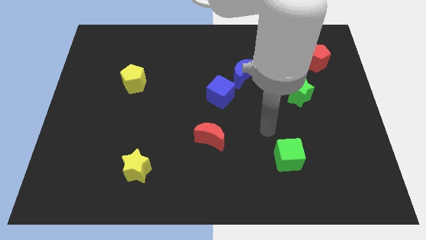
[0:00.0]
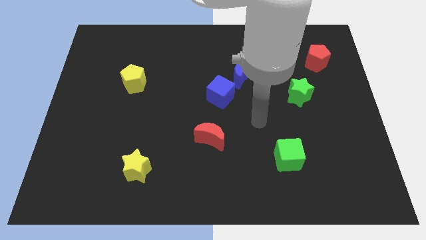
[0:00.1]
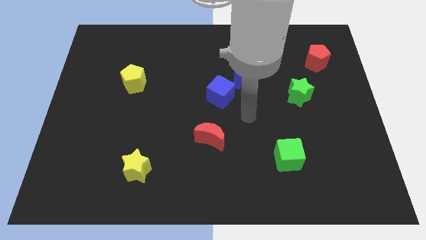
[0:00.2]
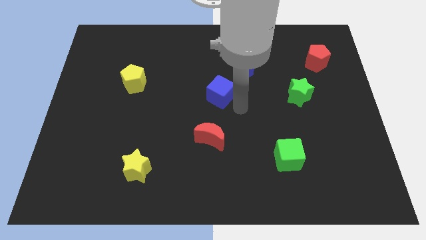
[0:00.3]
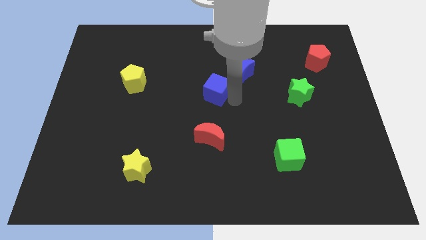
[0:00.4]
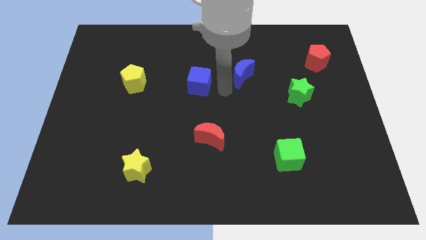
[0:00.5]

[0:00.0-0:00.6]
move the blue moon away from the blue cube

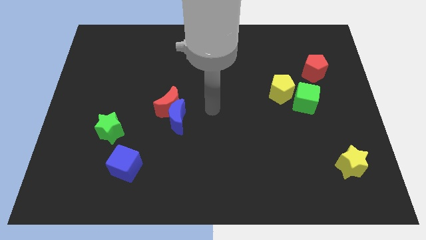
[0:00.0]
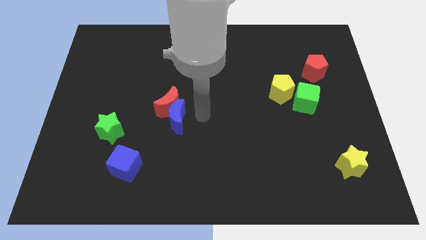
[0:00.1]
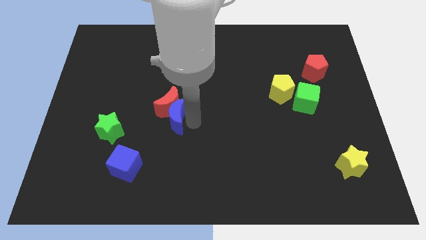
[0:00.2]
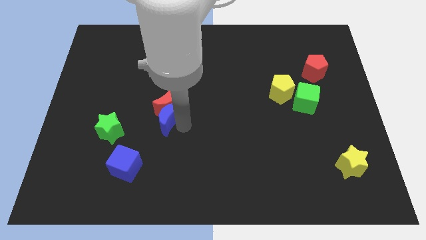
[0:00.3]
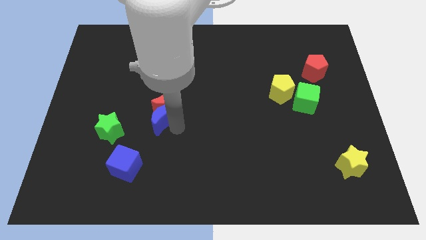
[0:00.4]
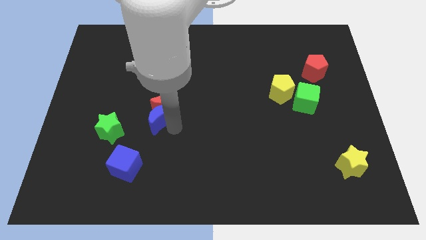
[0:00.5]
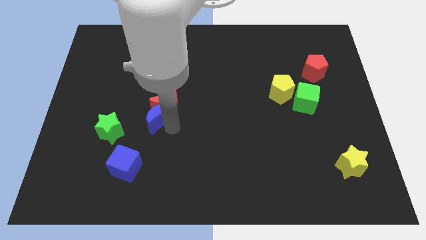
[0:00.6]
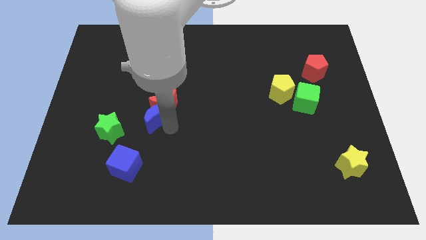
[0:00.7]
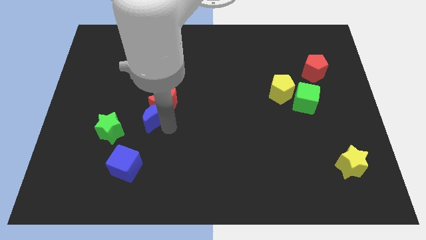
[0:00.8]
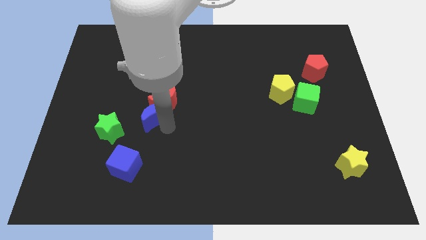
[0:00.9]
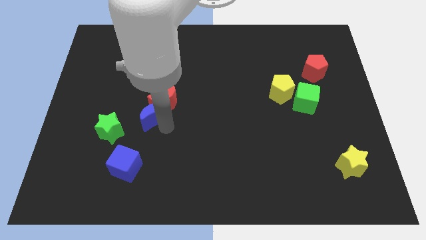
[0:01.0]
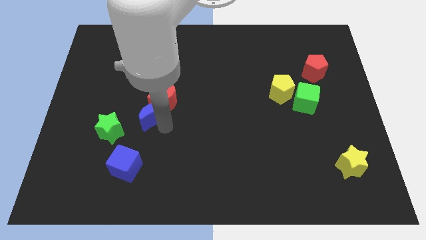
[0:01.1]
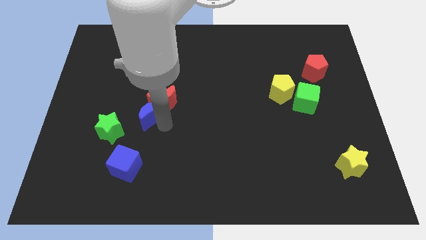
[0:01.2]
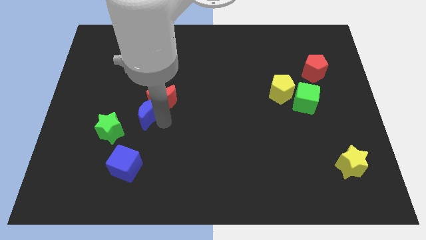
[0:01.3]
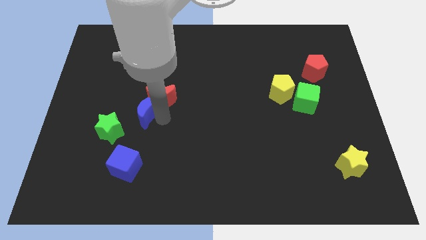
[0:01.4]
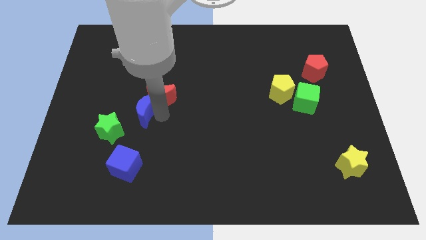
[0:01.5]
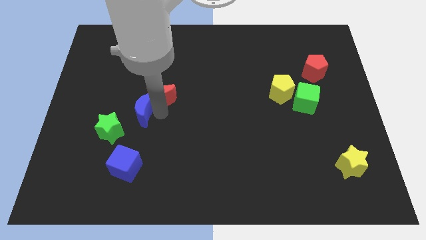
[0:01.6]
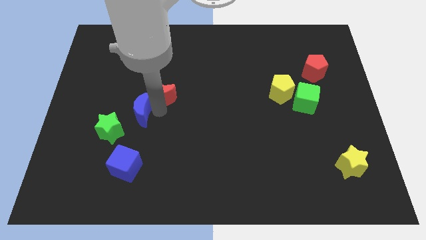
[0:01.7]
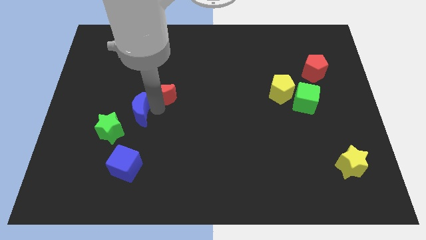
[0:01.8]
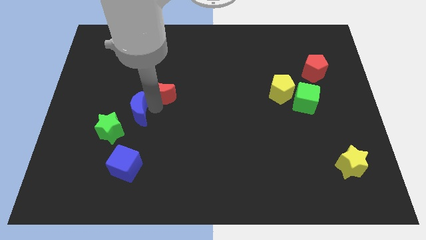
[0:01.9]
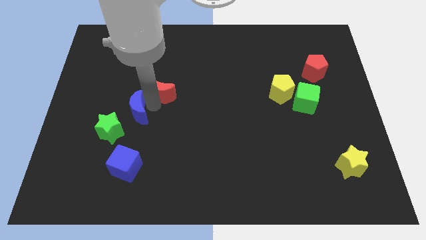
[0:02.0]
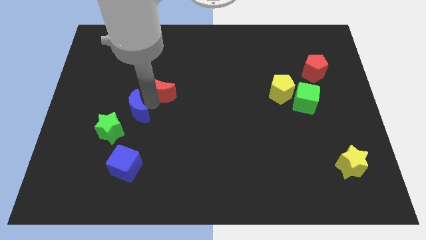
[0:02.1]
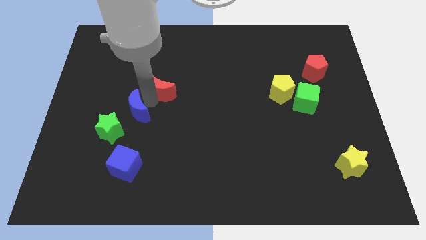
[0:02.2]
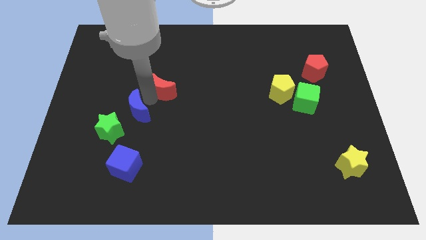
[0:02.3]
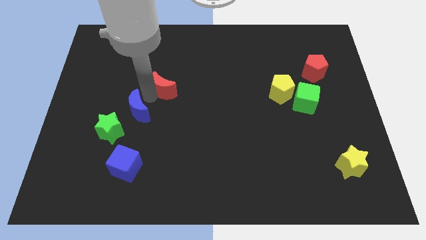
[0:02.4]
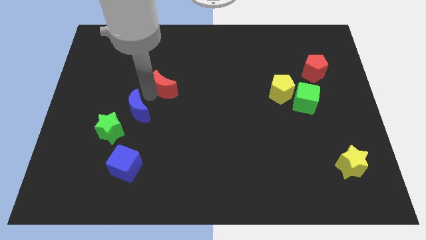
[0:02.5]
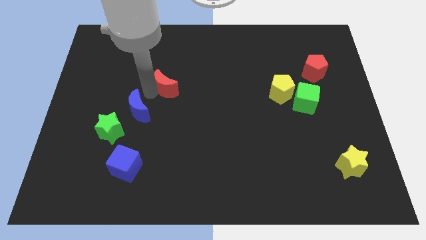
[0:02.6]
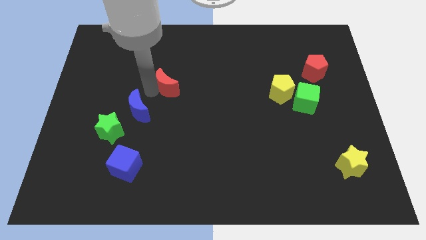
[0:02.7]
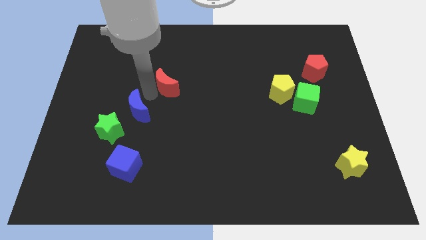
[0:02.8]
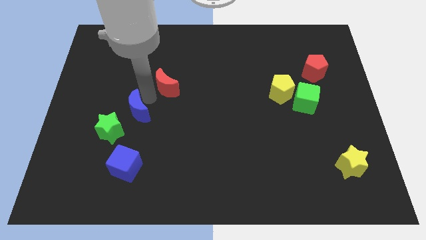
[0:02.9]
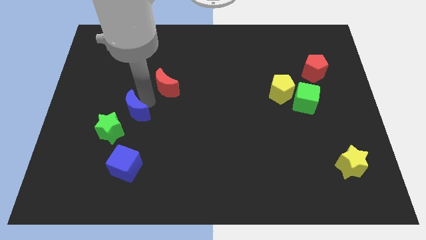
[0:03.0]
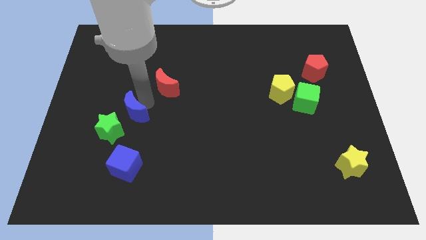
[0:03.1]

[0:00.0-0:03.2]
pull the red moon apart from the blue moon

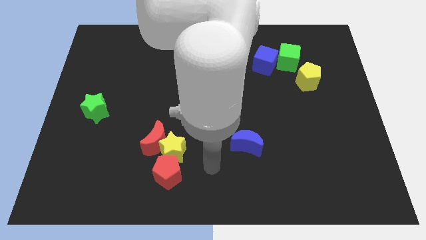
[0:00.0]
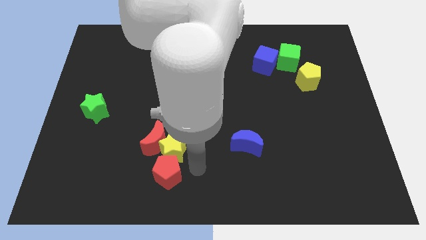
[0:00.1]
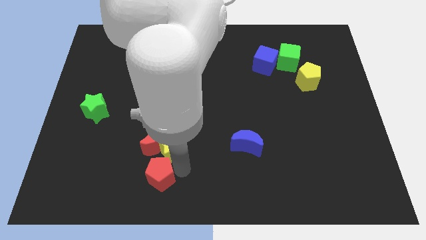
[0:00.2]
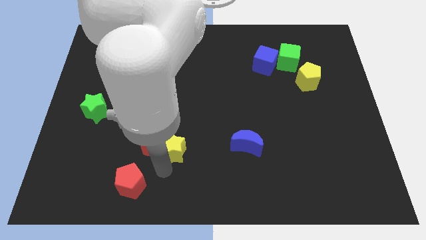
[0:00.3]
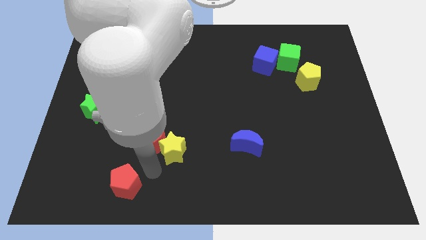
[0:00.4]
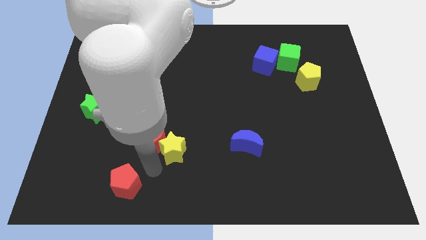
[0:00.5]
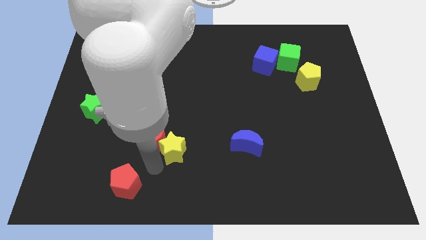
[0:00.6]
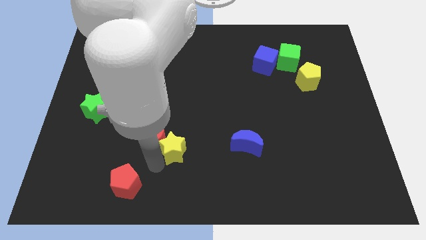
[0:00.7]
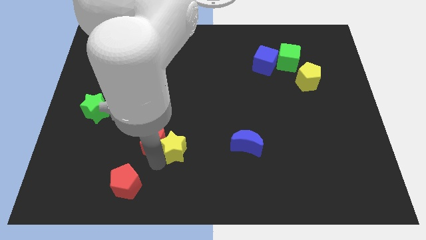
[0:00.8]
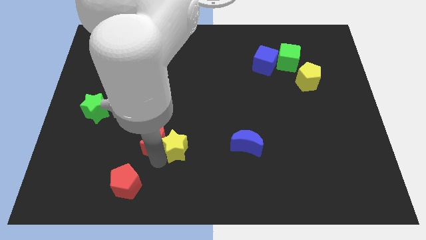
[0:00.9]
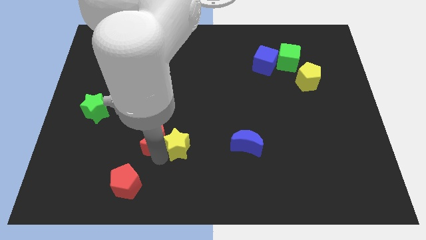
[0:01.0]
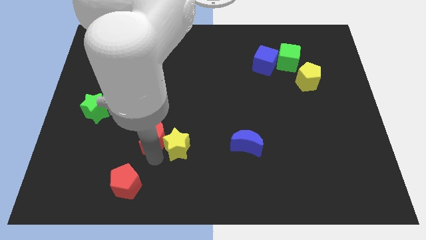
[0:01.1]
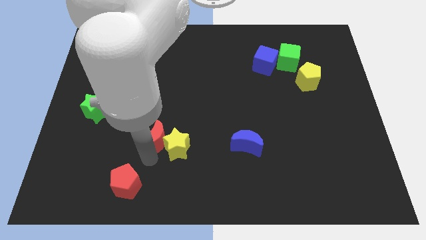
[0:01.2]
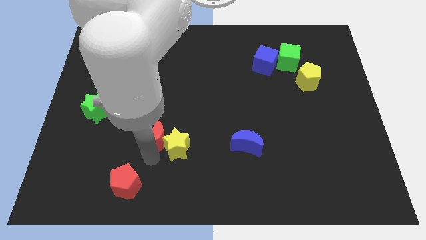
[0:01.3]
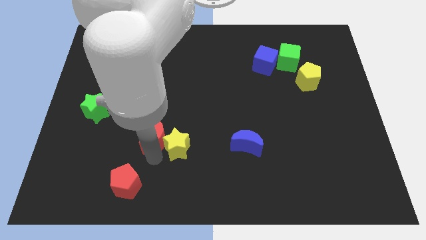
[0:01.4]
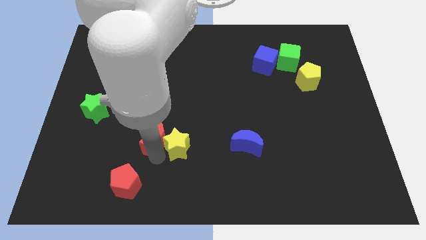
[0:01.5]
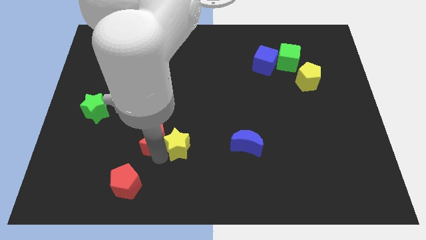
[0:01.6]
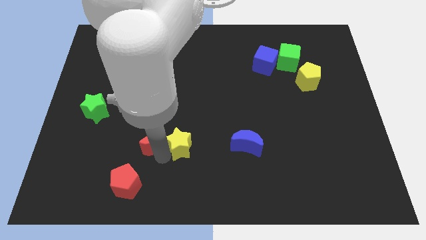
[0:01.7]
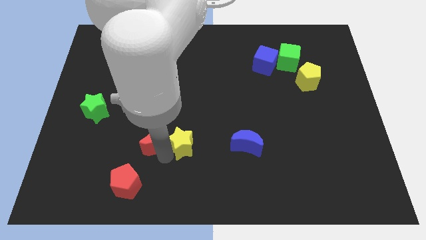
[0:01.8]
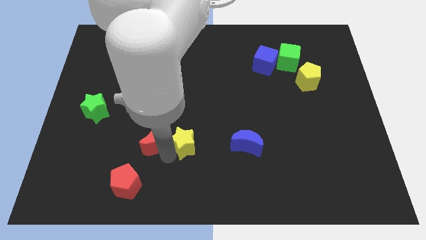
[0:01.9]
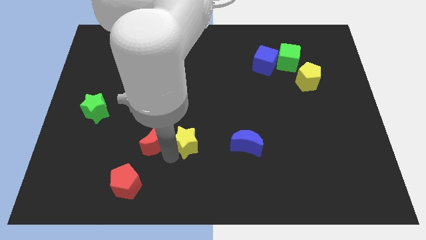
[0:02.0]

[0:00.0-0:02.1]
separate the yellow star from the red moon and red pentagon

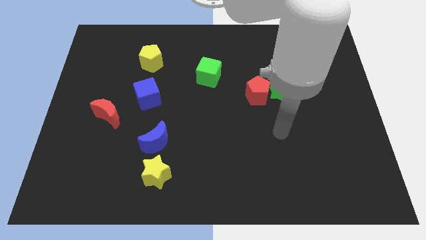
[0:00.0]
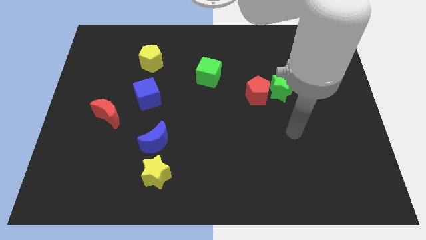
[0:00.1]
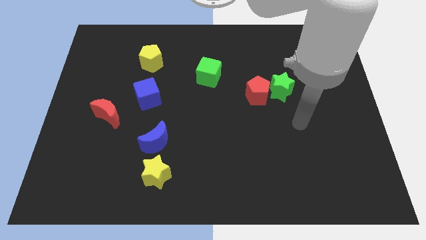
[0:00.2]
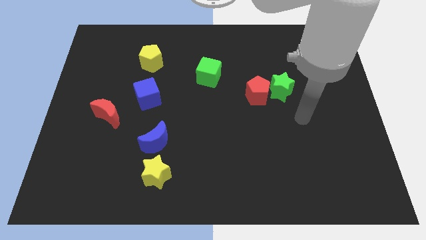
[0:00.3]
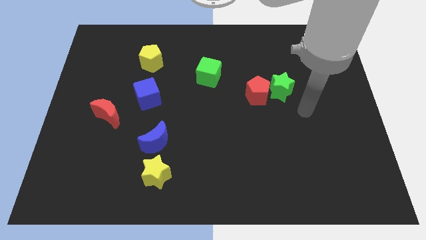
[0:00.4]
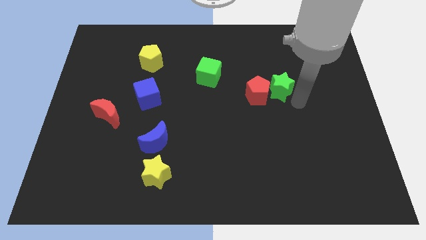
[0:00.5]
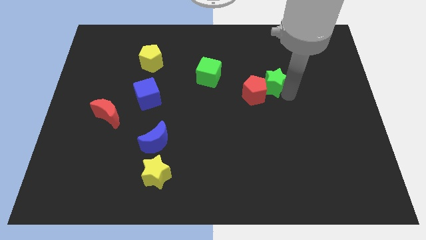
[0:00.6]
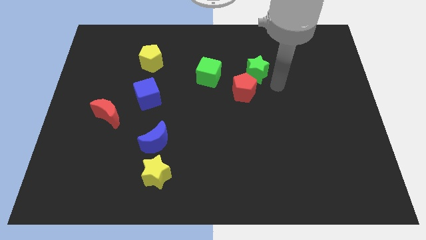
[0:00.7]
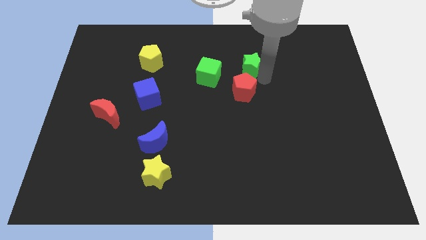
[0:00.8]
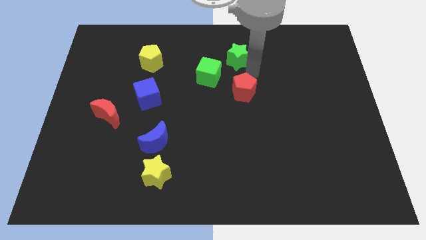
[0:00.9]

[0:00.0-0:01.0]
separate the red pentagon from the green star

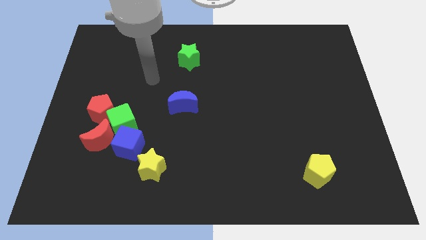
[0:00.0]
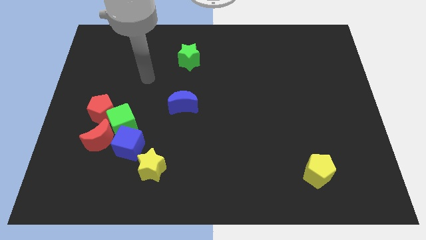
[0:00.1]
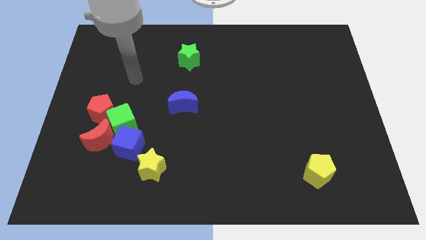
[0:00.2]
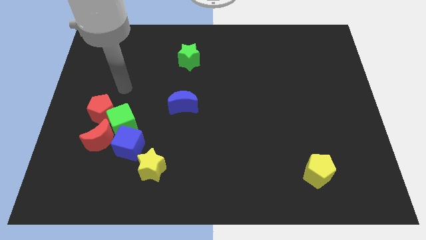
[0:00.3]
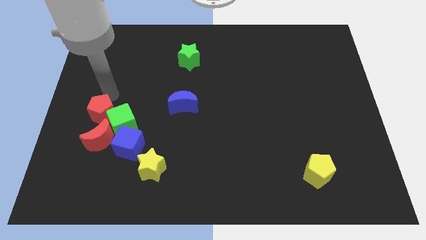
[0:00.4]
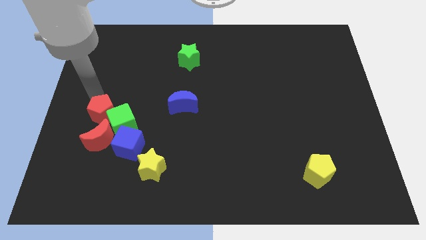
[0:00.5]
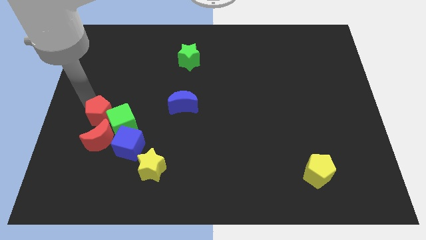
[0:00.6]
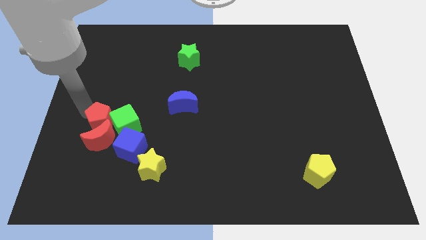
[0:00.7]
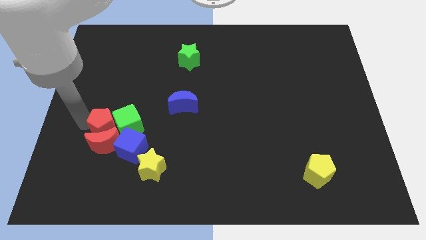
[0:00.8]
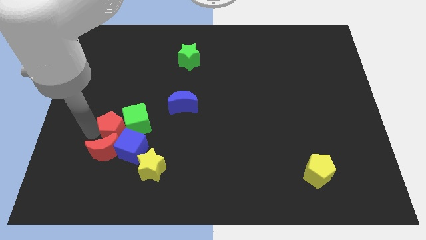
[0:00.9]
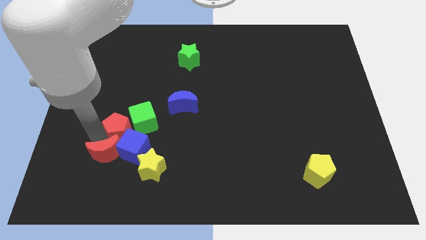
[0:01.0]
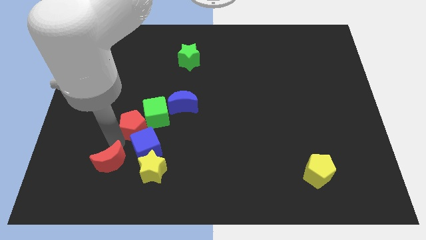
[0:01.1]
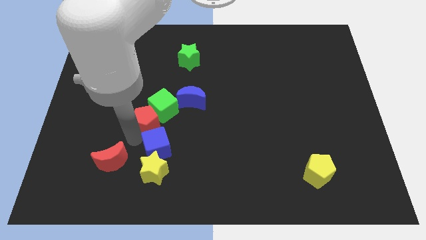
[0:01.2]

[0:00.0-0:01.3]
move the green cube away from the group of blocks

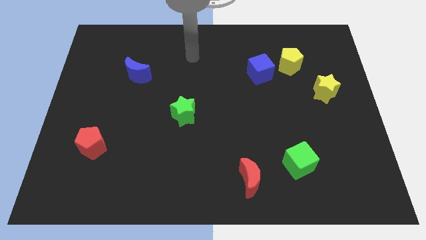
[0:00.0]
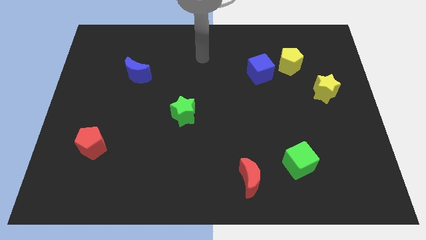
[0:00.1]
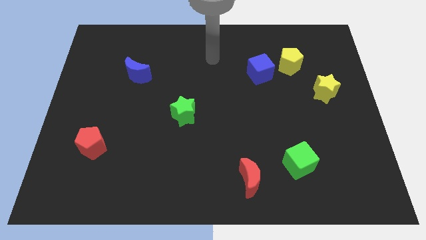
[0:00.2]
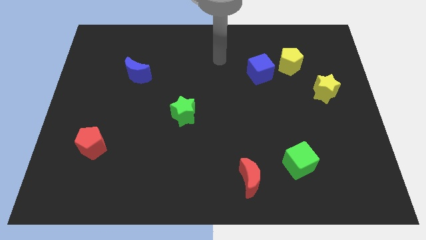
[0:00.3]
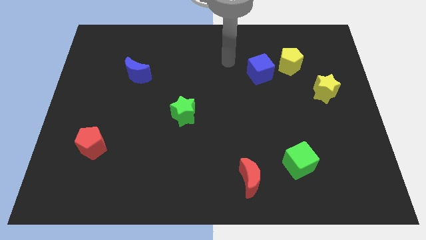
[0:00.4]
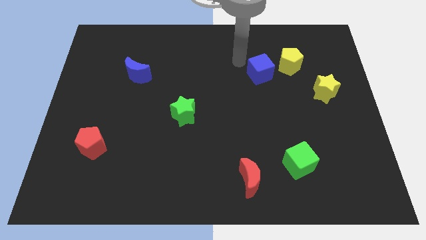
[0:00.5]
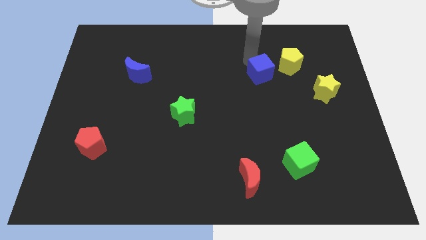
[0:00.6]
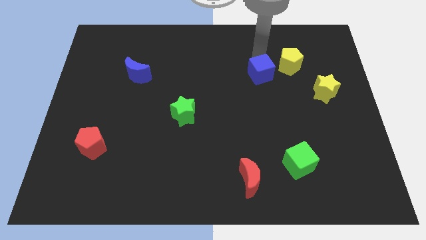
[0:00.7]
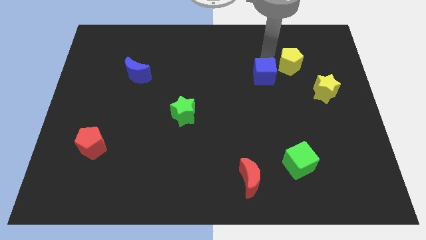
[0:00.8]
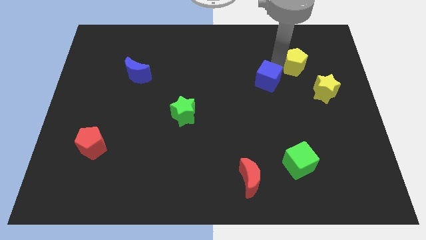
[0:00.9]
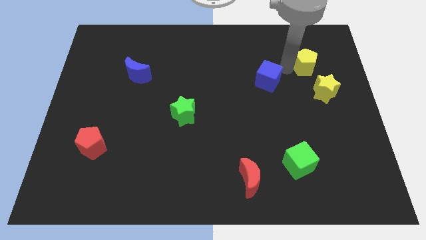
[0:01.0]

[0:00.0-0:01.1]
move the blue cube away from the yellow pentagon

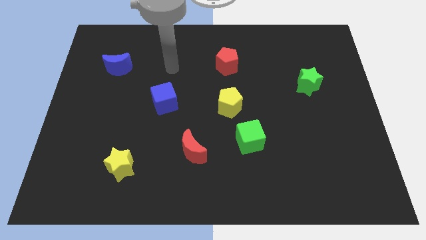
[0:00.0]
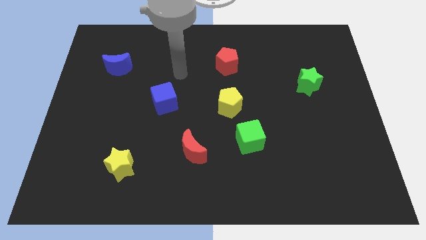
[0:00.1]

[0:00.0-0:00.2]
pull the green cube apart from the yellow pentagon

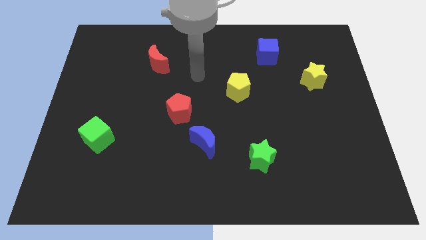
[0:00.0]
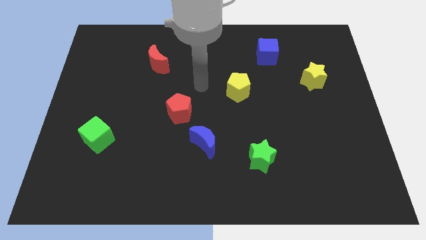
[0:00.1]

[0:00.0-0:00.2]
separate the red pentagon from the blue moon
